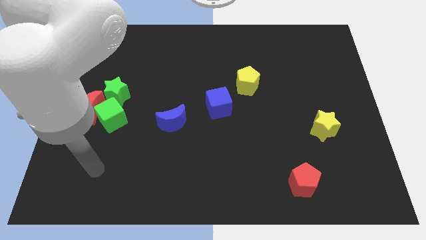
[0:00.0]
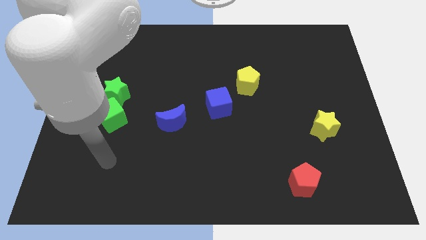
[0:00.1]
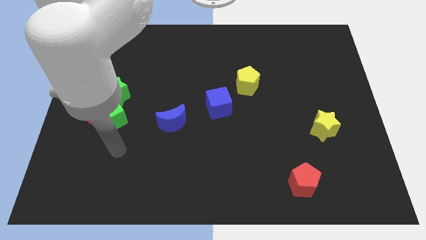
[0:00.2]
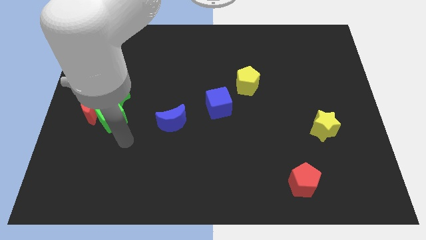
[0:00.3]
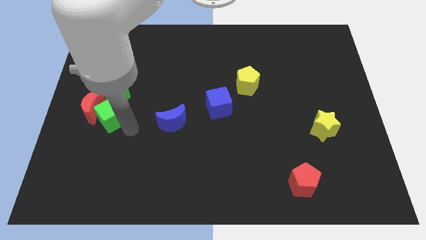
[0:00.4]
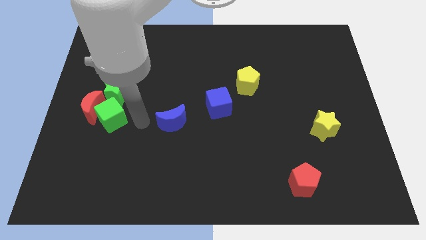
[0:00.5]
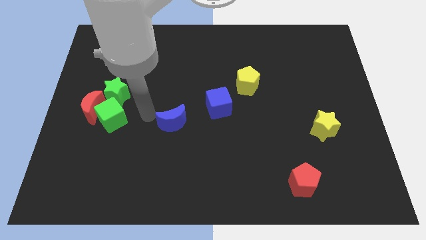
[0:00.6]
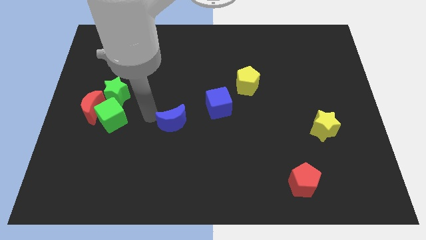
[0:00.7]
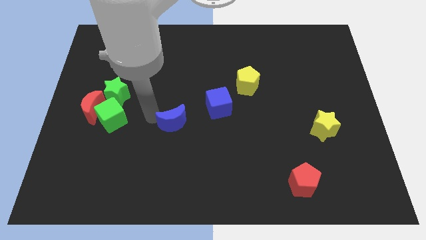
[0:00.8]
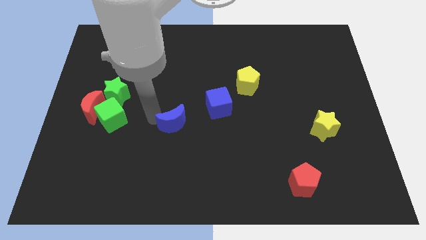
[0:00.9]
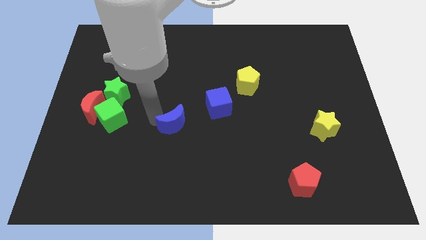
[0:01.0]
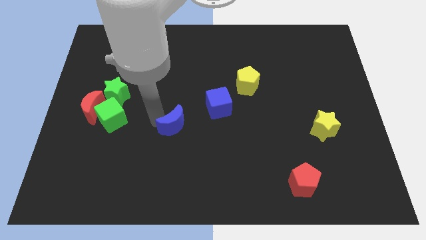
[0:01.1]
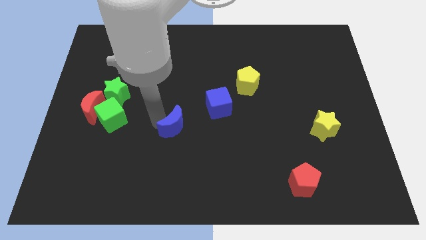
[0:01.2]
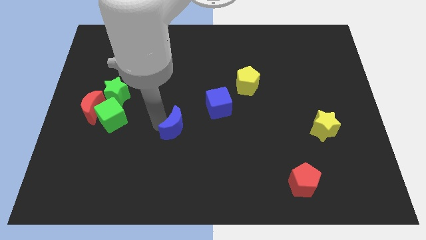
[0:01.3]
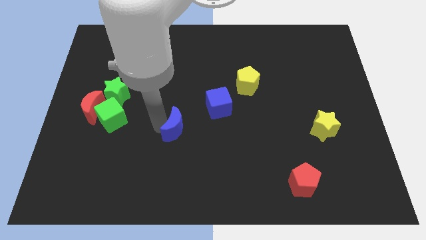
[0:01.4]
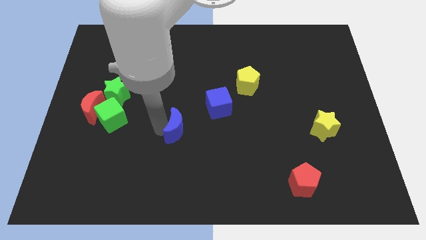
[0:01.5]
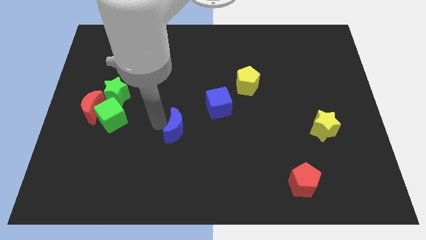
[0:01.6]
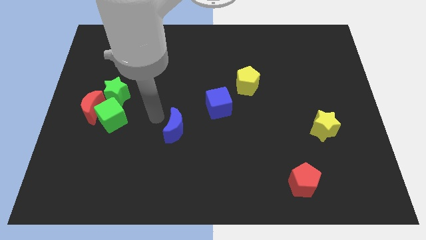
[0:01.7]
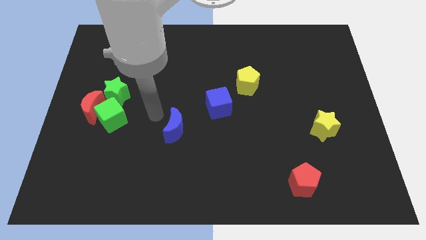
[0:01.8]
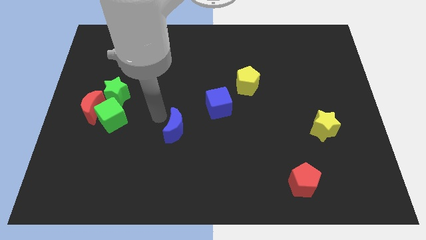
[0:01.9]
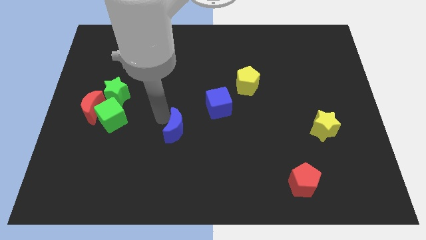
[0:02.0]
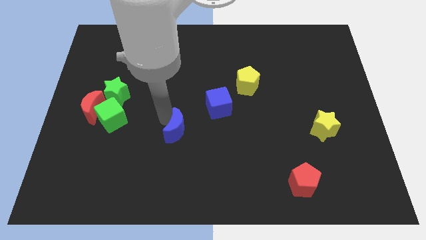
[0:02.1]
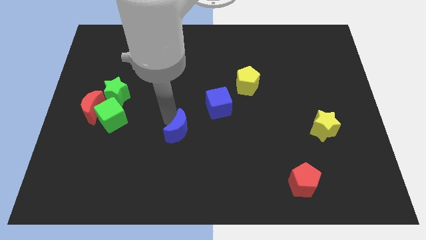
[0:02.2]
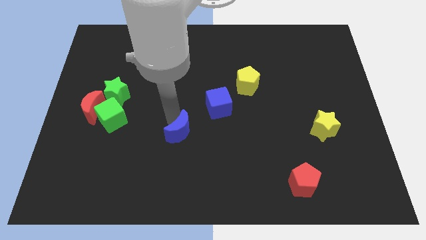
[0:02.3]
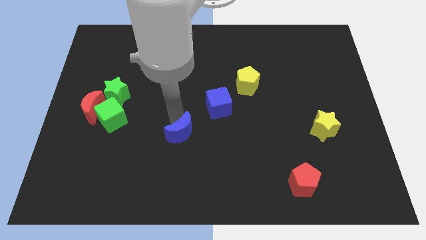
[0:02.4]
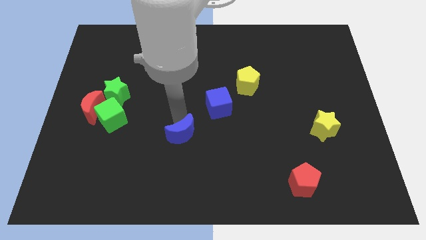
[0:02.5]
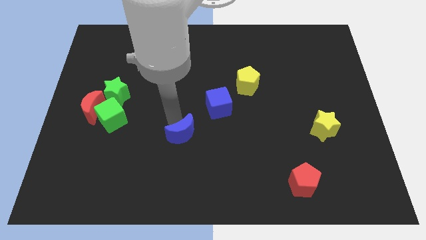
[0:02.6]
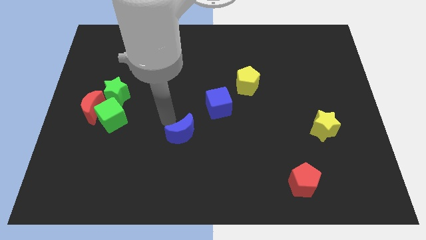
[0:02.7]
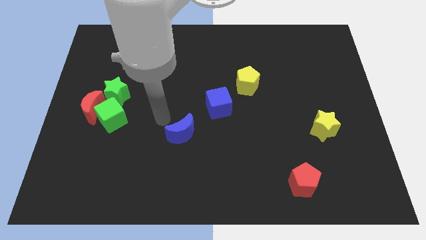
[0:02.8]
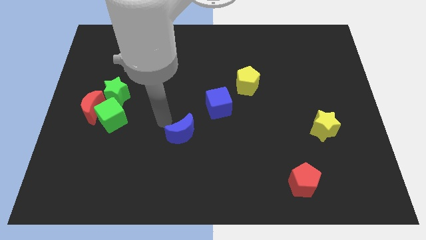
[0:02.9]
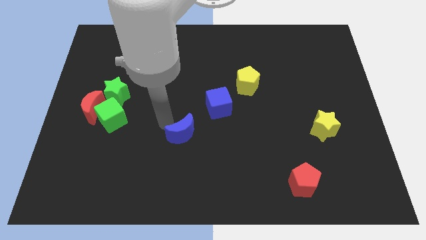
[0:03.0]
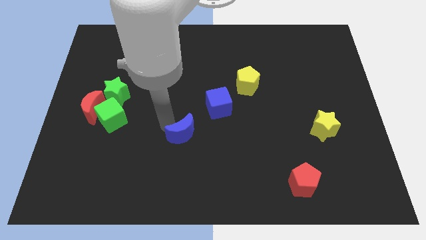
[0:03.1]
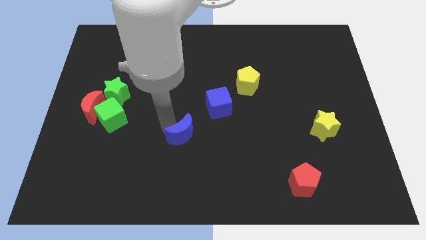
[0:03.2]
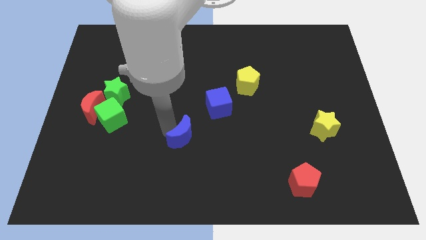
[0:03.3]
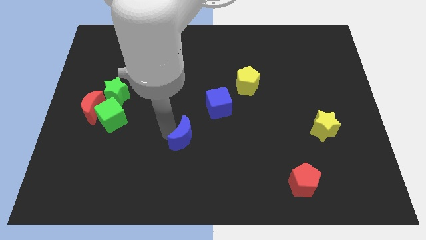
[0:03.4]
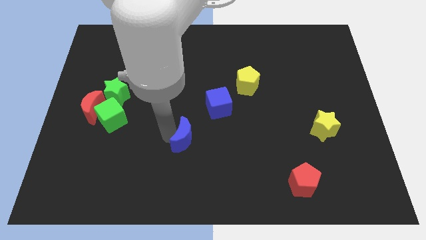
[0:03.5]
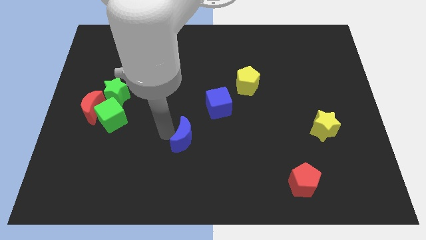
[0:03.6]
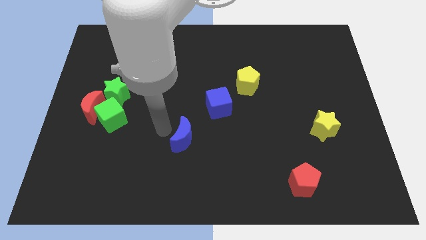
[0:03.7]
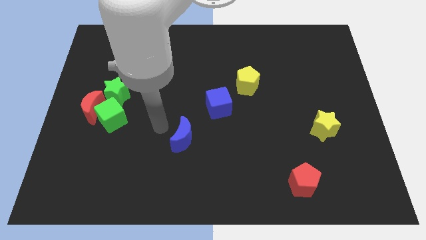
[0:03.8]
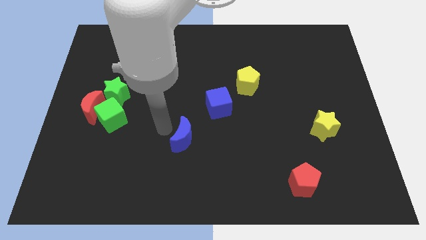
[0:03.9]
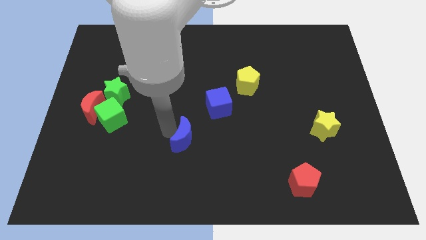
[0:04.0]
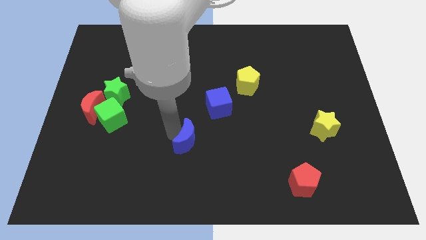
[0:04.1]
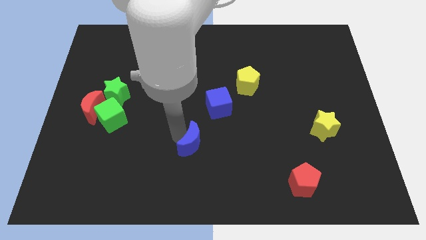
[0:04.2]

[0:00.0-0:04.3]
slightly move the blue moon downwards and to the right diagonally

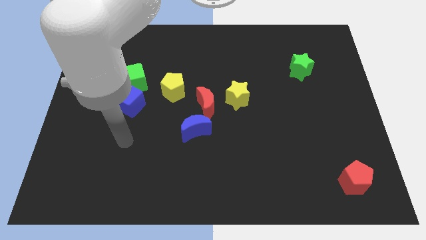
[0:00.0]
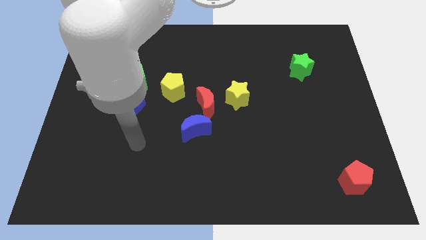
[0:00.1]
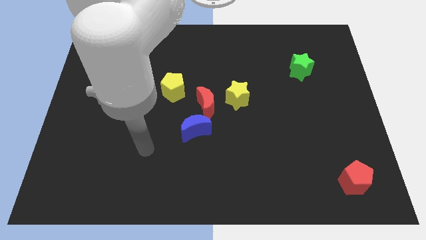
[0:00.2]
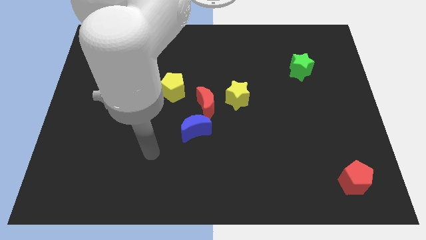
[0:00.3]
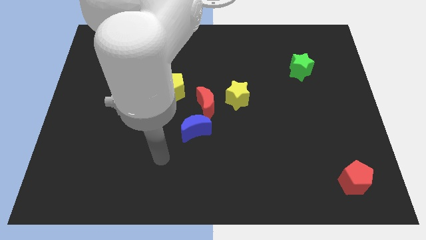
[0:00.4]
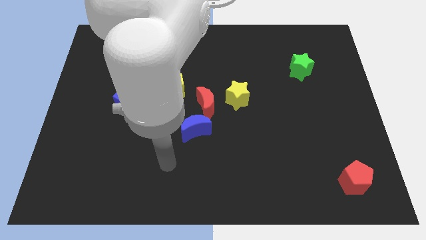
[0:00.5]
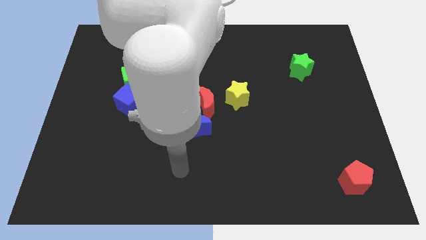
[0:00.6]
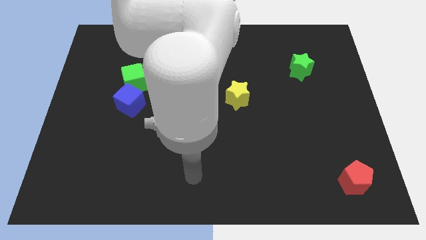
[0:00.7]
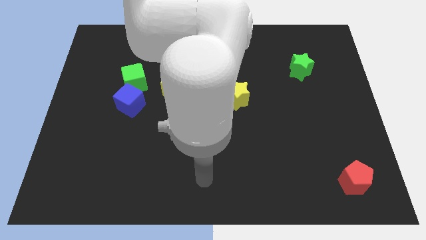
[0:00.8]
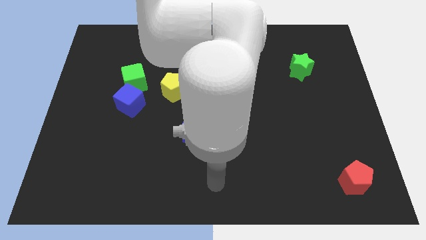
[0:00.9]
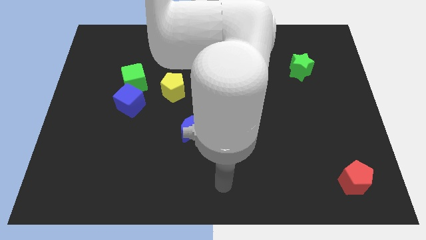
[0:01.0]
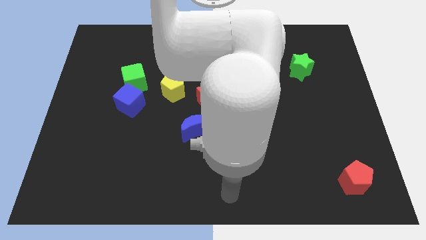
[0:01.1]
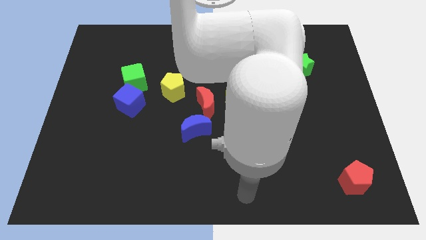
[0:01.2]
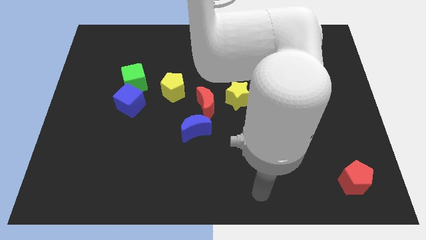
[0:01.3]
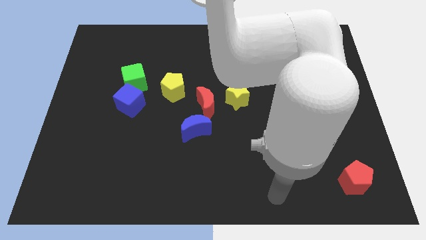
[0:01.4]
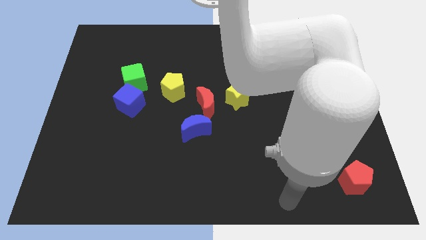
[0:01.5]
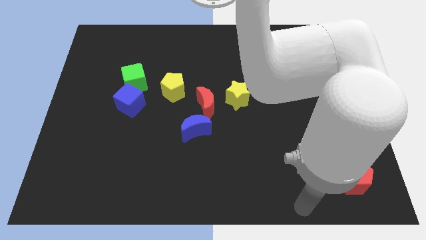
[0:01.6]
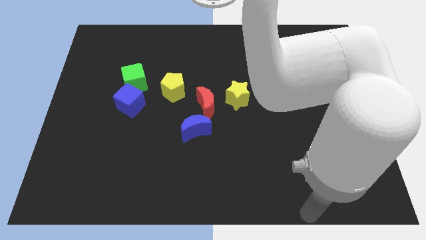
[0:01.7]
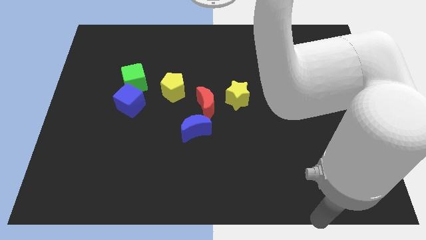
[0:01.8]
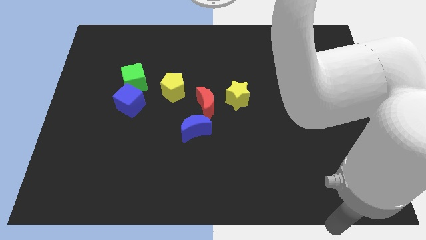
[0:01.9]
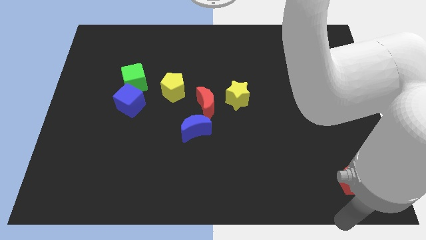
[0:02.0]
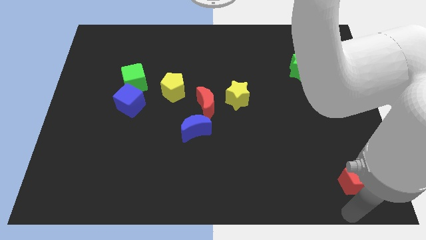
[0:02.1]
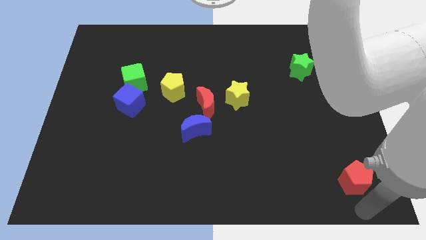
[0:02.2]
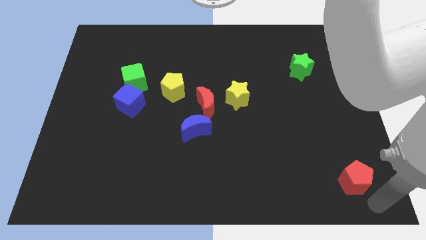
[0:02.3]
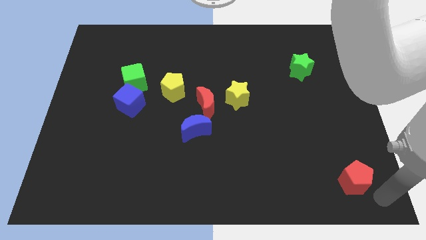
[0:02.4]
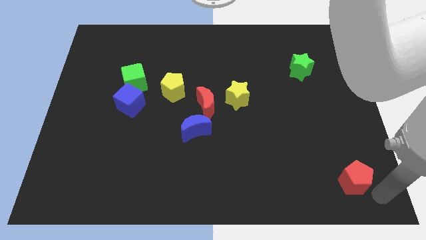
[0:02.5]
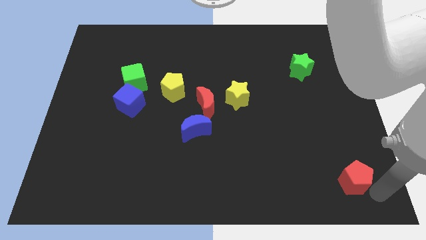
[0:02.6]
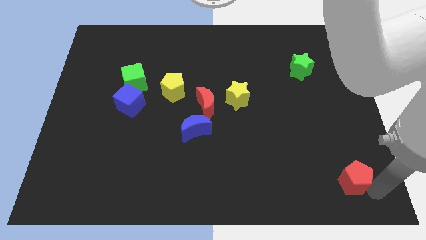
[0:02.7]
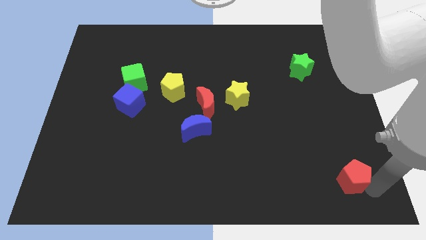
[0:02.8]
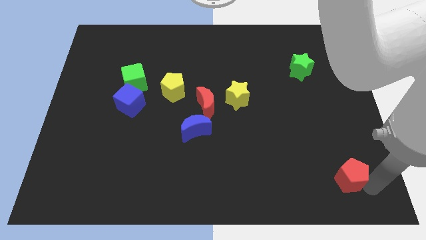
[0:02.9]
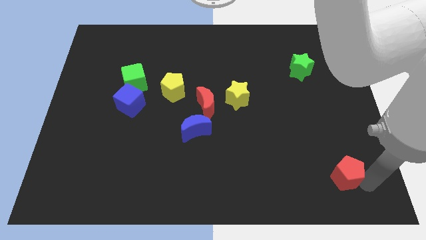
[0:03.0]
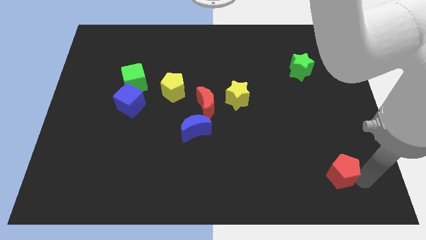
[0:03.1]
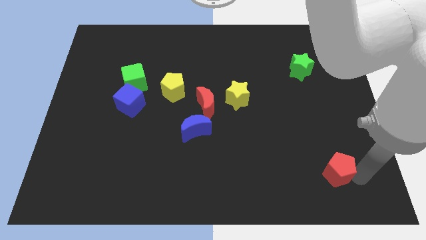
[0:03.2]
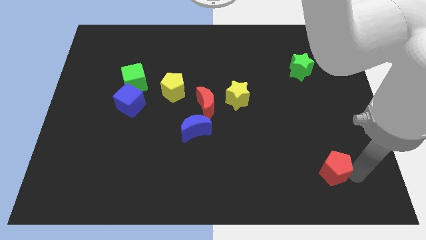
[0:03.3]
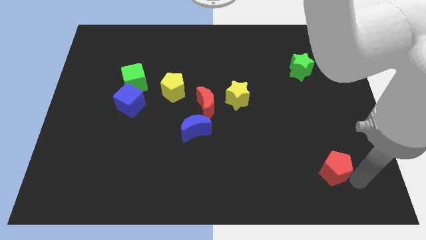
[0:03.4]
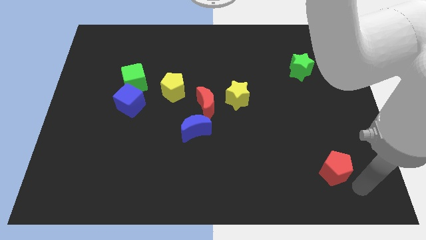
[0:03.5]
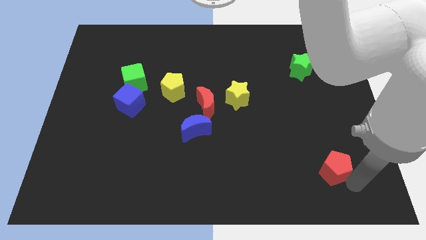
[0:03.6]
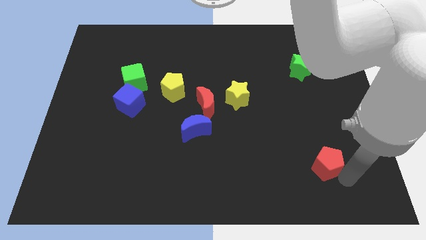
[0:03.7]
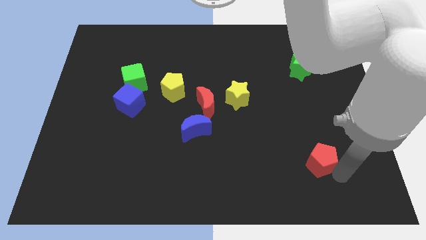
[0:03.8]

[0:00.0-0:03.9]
push the red pentagon up and then to the left a bit

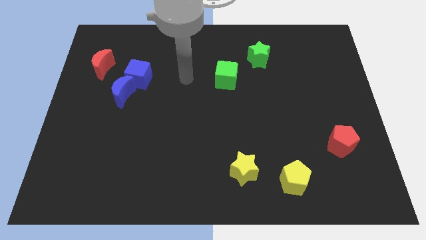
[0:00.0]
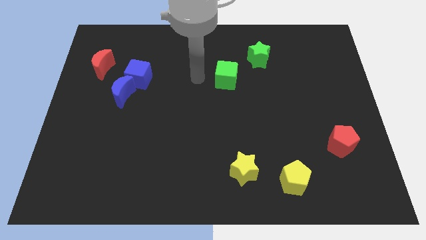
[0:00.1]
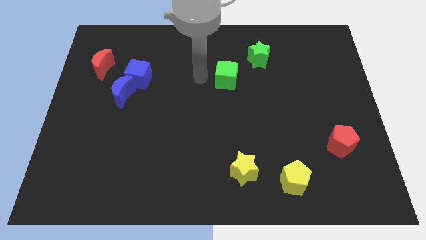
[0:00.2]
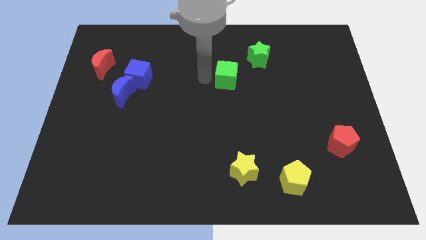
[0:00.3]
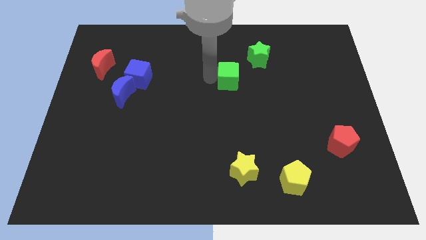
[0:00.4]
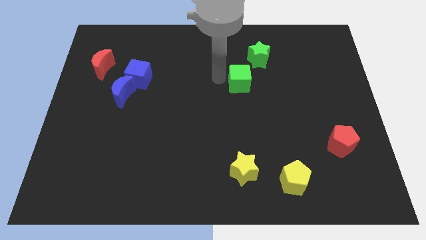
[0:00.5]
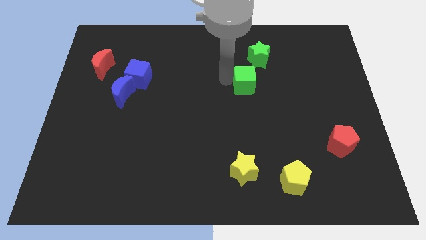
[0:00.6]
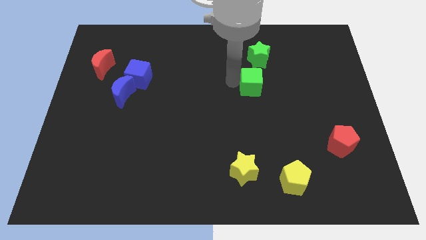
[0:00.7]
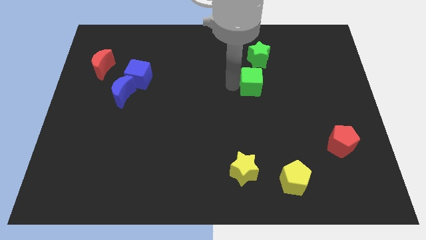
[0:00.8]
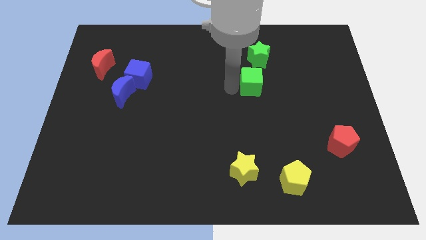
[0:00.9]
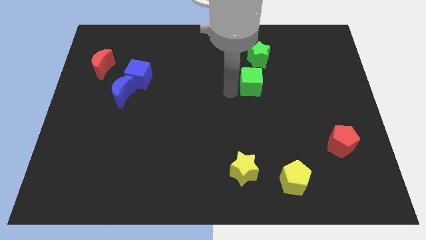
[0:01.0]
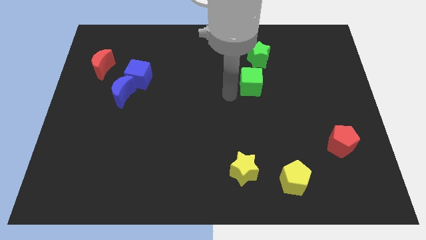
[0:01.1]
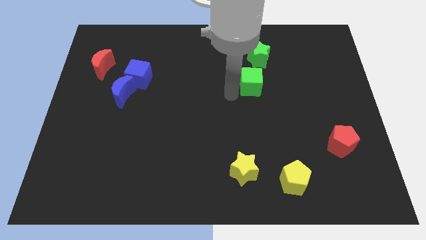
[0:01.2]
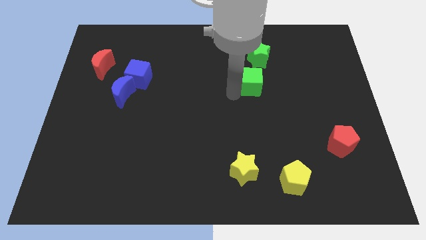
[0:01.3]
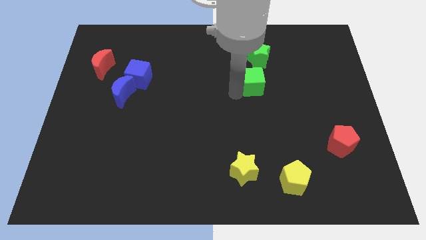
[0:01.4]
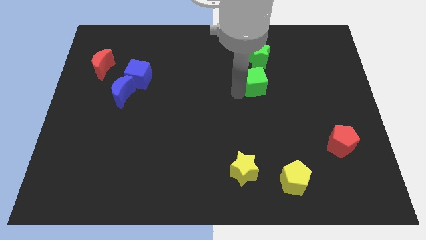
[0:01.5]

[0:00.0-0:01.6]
move the green cube to the right somewhat
